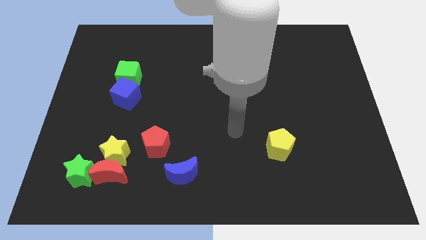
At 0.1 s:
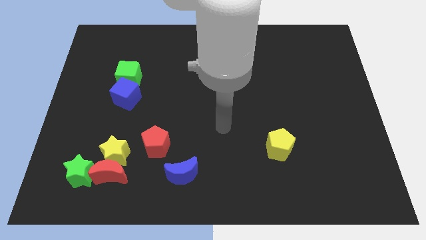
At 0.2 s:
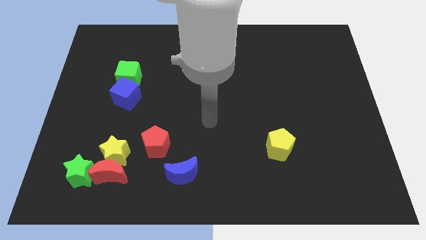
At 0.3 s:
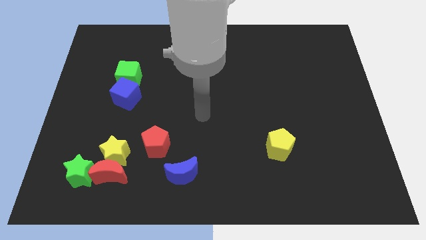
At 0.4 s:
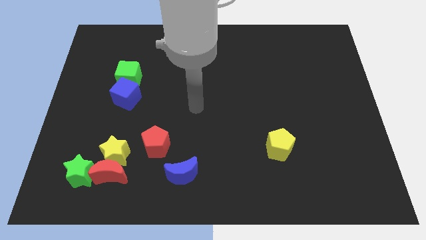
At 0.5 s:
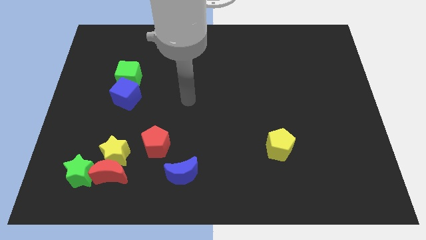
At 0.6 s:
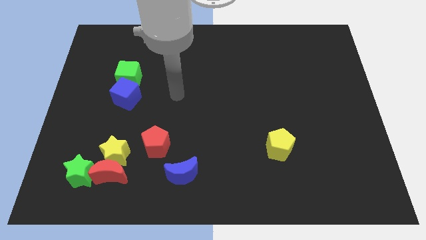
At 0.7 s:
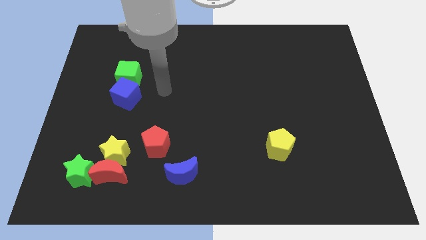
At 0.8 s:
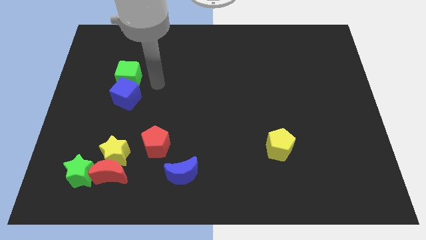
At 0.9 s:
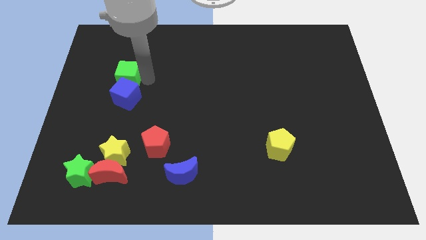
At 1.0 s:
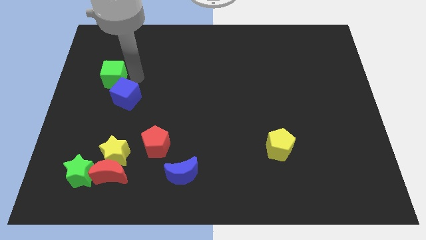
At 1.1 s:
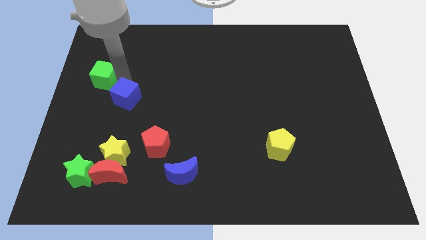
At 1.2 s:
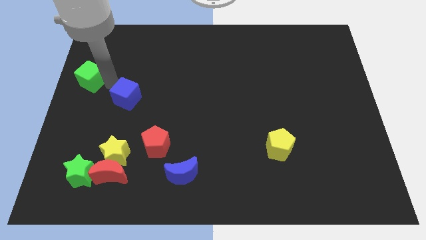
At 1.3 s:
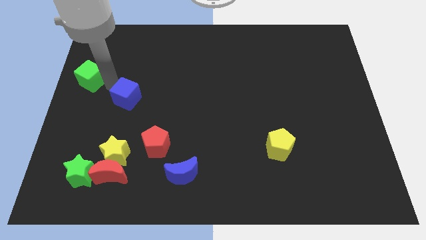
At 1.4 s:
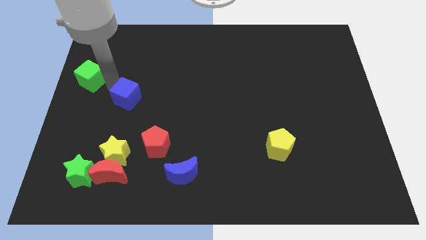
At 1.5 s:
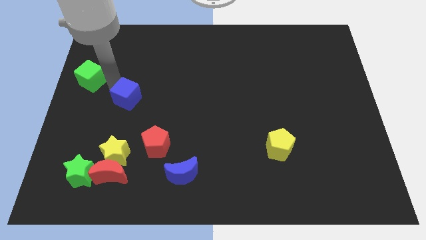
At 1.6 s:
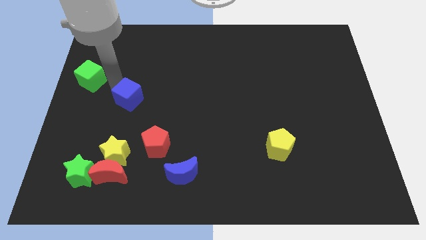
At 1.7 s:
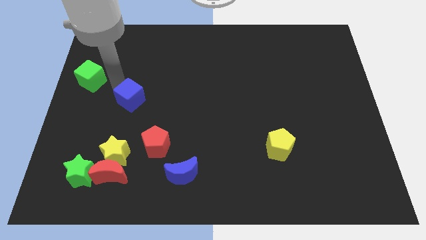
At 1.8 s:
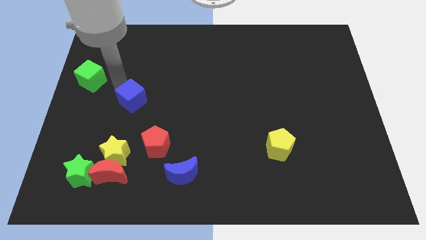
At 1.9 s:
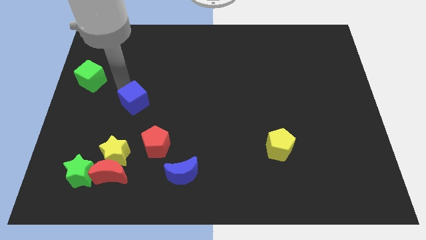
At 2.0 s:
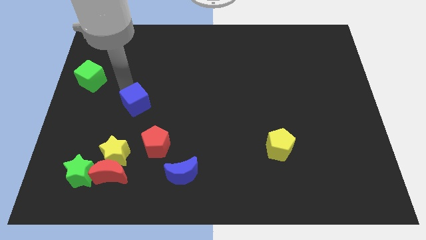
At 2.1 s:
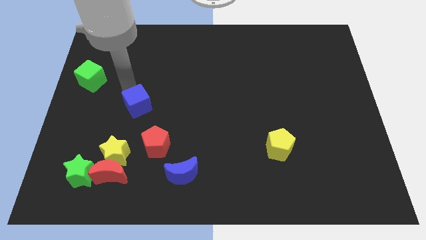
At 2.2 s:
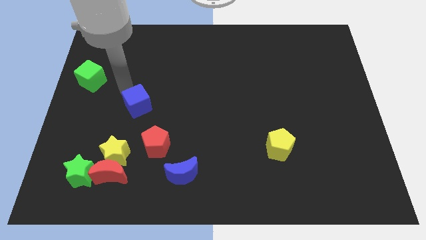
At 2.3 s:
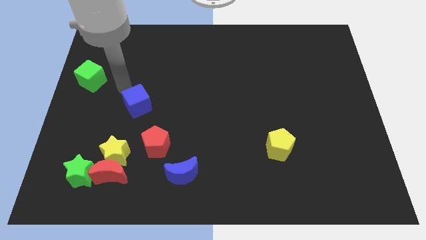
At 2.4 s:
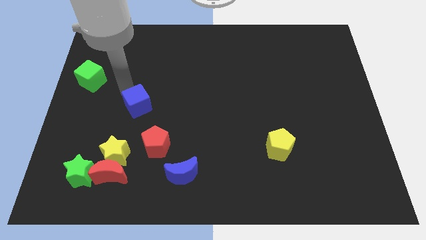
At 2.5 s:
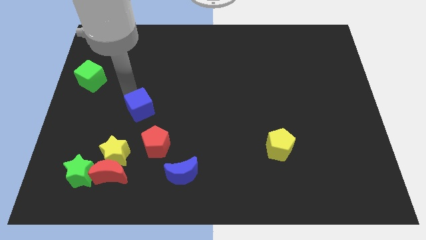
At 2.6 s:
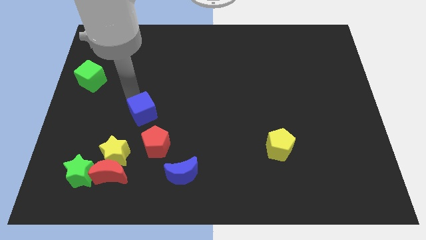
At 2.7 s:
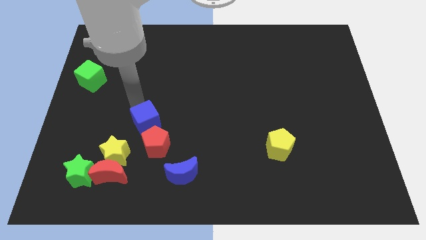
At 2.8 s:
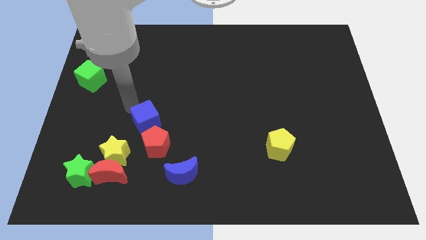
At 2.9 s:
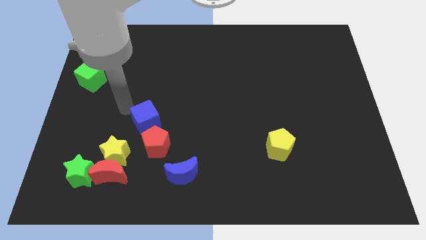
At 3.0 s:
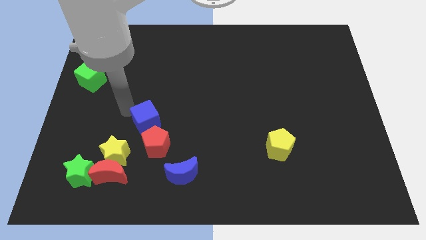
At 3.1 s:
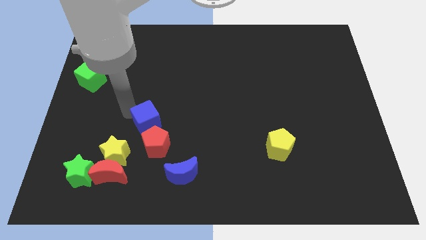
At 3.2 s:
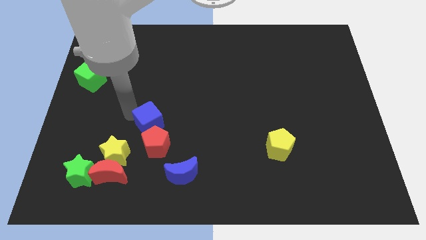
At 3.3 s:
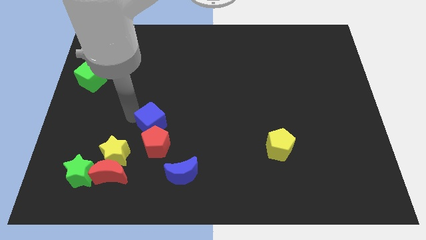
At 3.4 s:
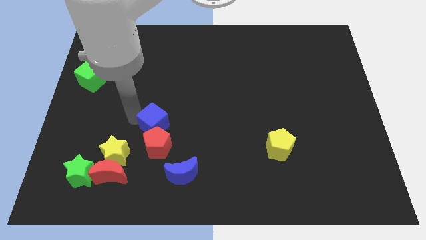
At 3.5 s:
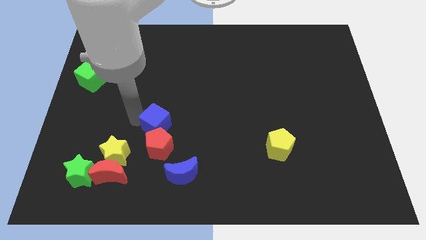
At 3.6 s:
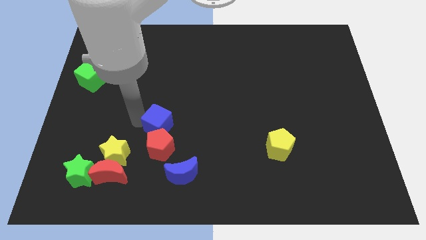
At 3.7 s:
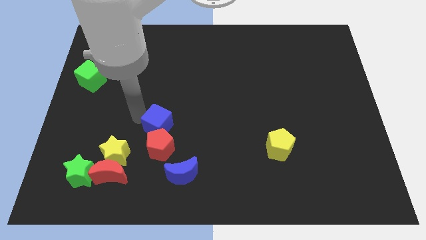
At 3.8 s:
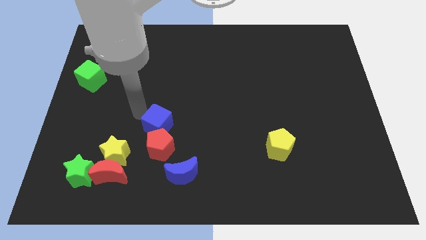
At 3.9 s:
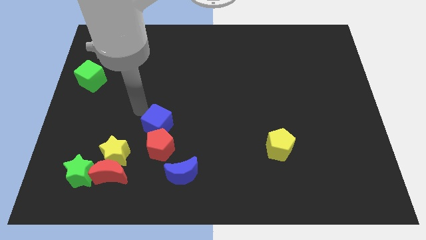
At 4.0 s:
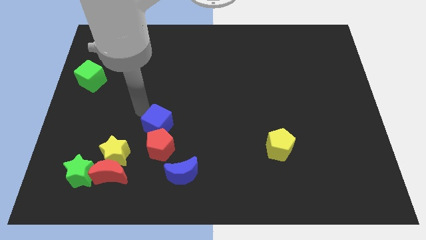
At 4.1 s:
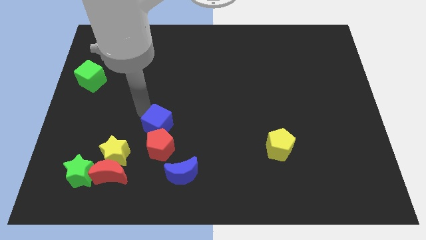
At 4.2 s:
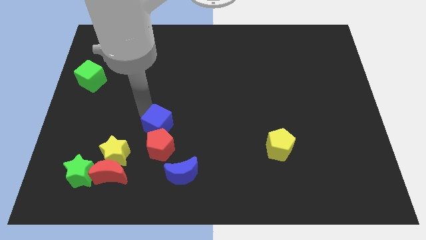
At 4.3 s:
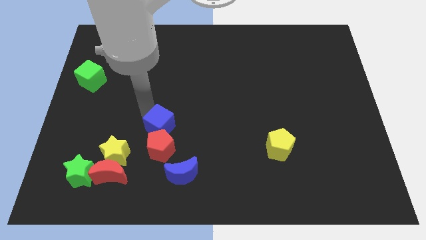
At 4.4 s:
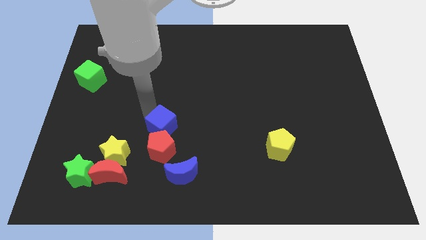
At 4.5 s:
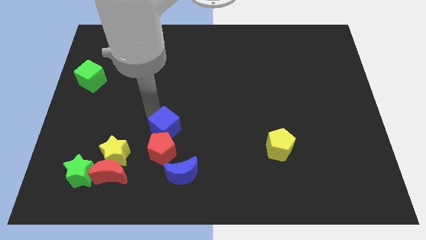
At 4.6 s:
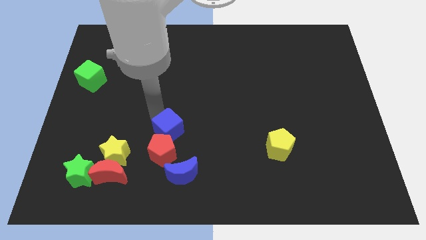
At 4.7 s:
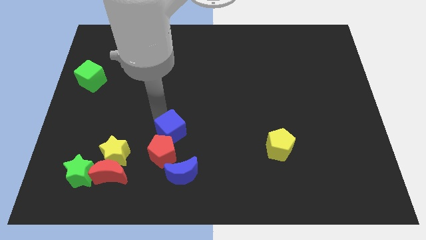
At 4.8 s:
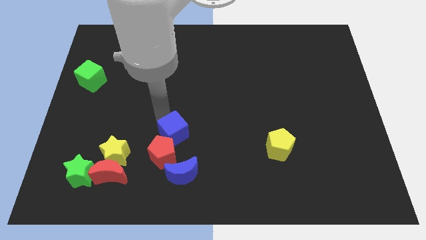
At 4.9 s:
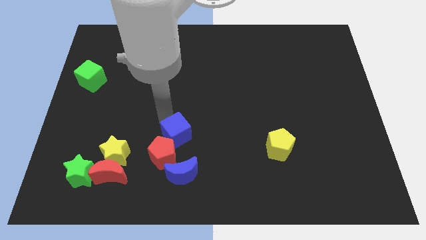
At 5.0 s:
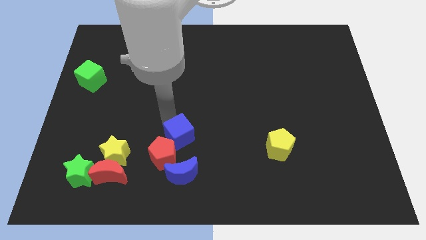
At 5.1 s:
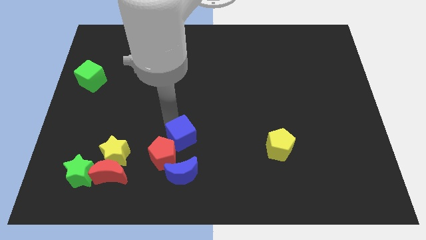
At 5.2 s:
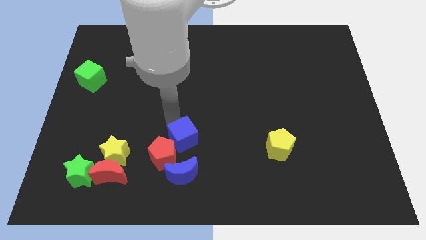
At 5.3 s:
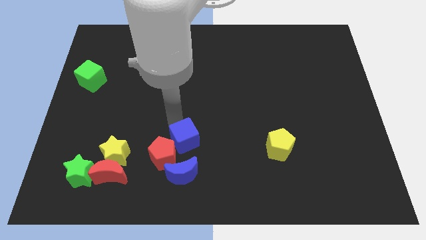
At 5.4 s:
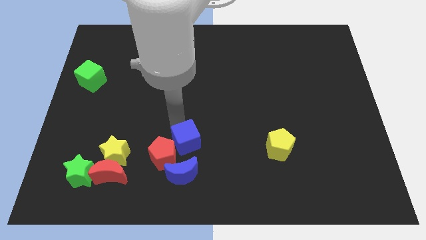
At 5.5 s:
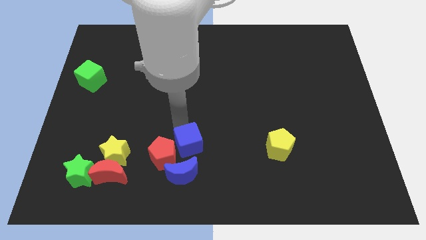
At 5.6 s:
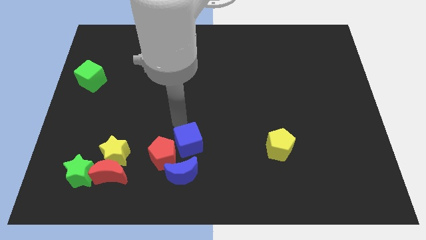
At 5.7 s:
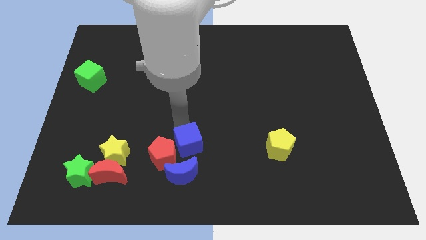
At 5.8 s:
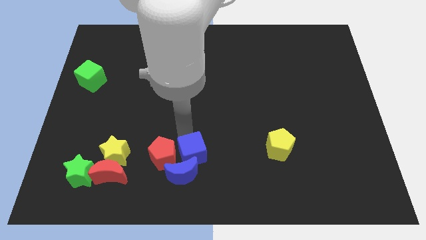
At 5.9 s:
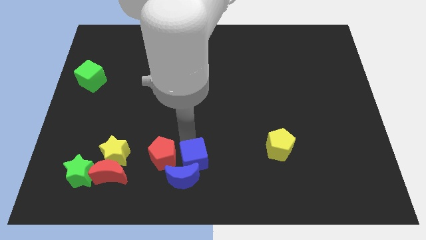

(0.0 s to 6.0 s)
slide the blue cube to the bottom

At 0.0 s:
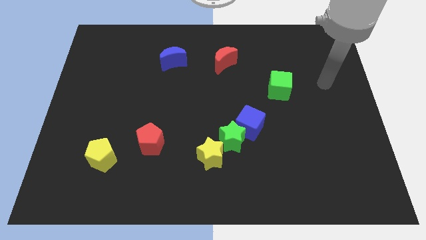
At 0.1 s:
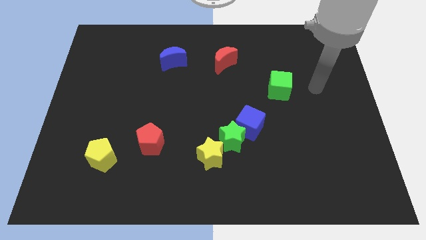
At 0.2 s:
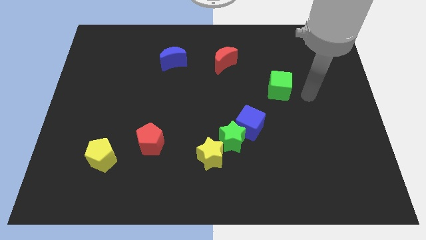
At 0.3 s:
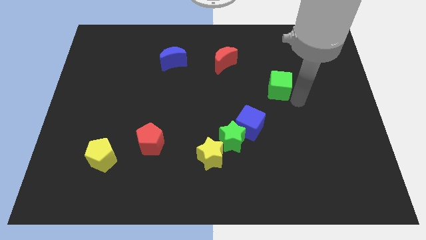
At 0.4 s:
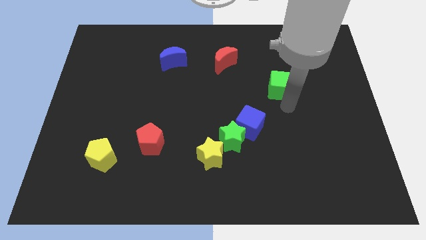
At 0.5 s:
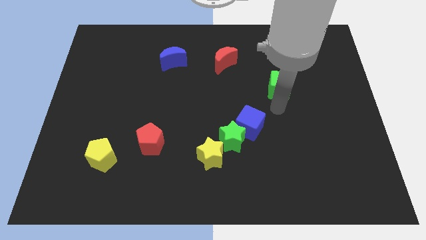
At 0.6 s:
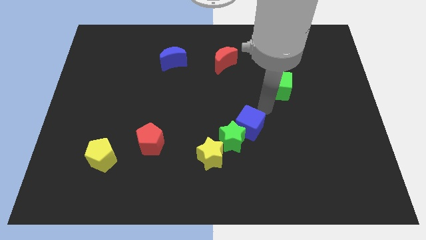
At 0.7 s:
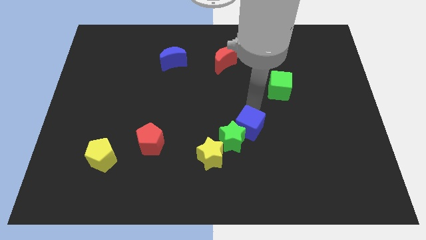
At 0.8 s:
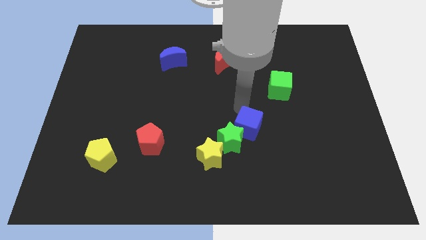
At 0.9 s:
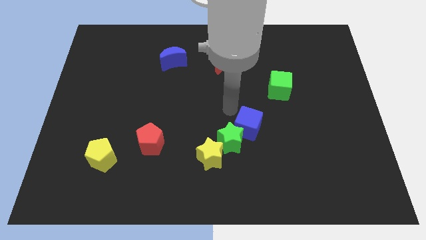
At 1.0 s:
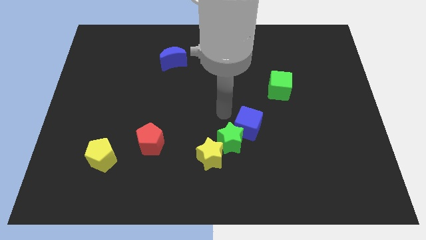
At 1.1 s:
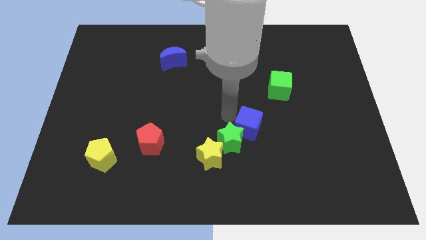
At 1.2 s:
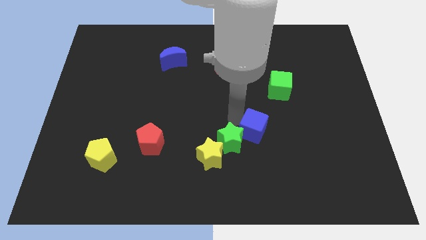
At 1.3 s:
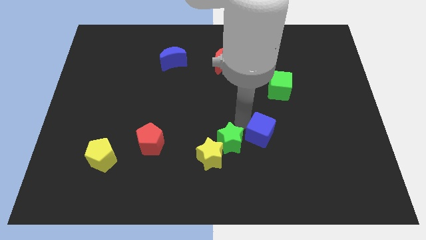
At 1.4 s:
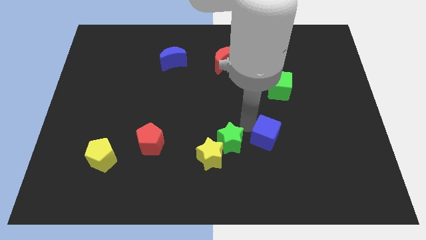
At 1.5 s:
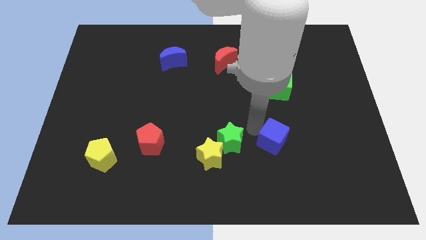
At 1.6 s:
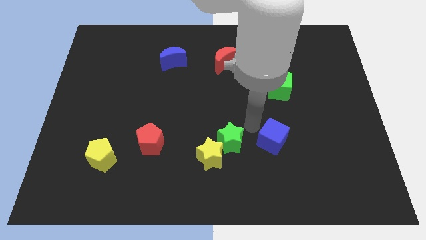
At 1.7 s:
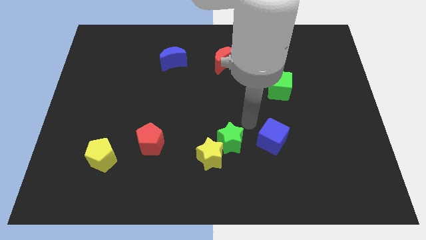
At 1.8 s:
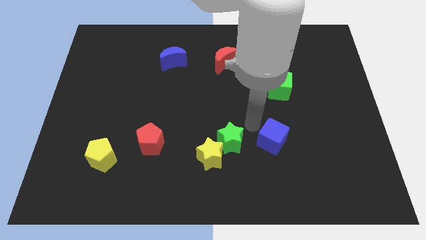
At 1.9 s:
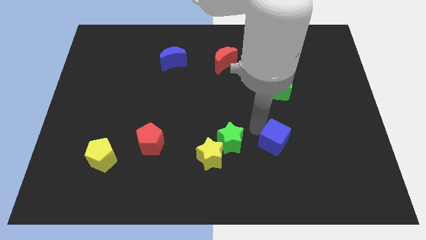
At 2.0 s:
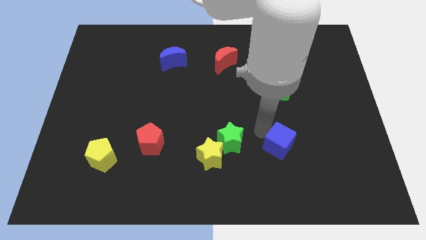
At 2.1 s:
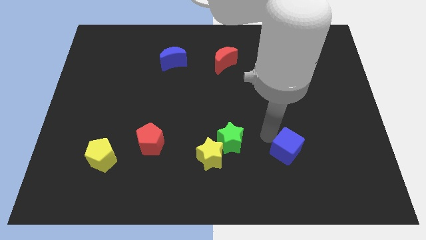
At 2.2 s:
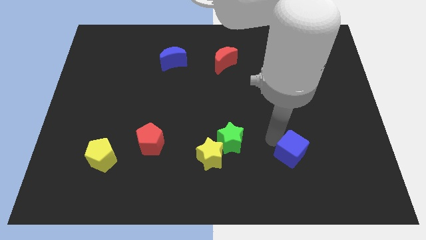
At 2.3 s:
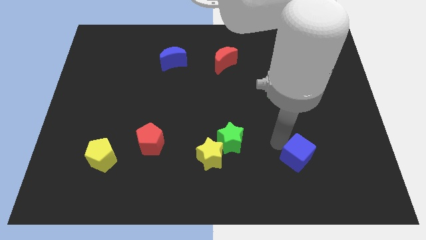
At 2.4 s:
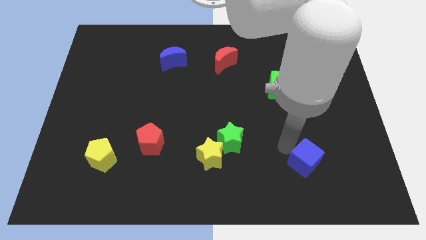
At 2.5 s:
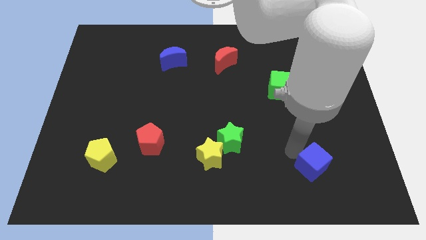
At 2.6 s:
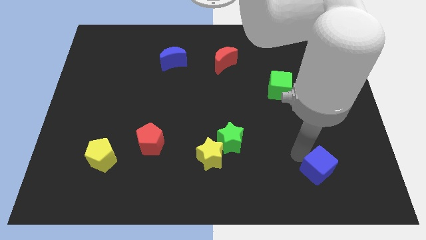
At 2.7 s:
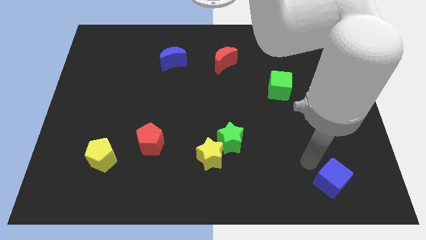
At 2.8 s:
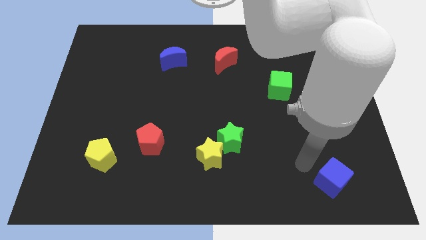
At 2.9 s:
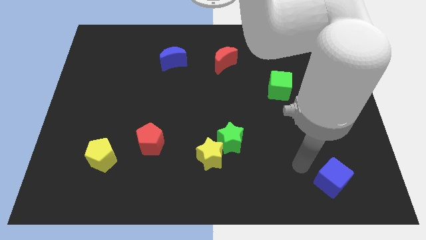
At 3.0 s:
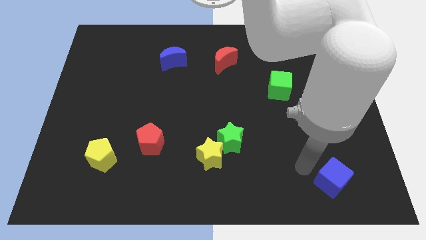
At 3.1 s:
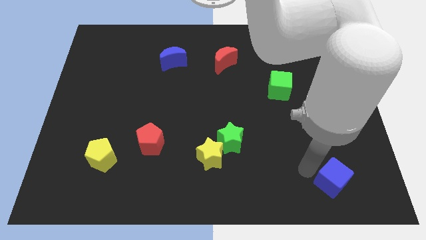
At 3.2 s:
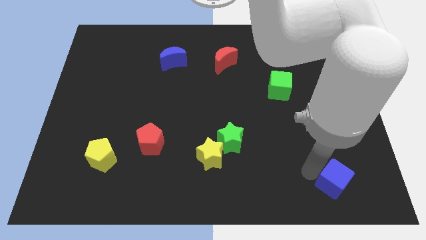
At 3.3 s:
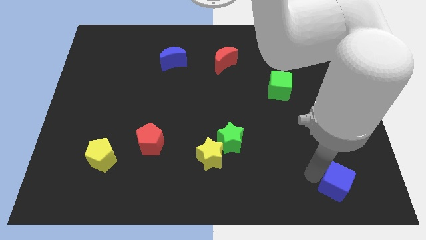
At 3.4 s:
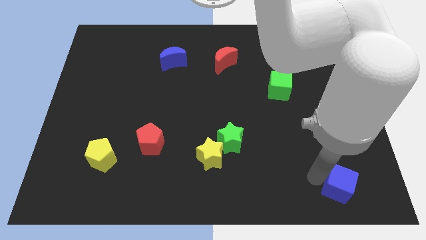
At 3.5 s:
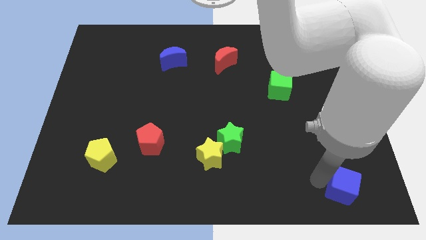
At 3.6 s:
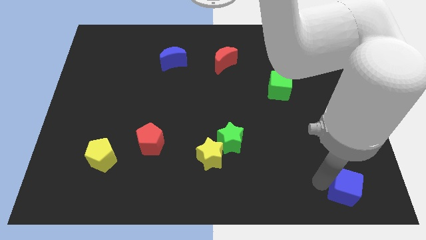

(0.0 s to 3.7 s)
push the blue cube to the lower right corner
